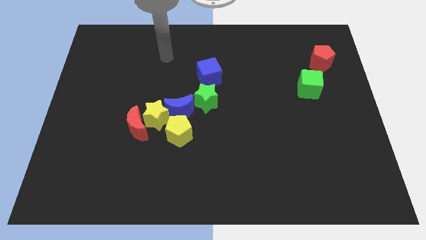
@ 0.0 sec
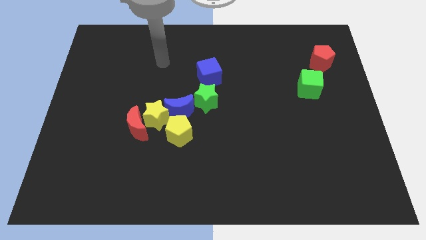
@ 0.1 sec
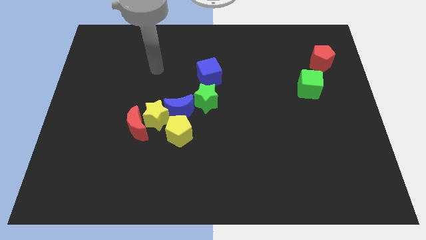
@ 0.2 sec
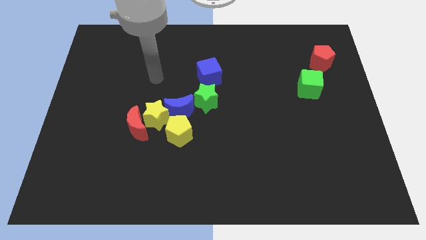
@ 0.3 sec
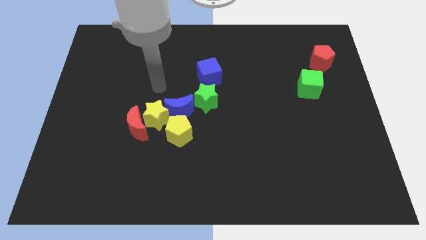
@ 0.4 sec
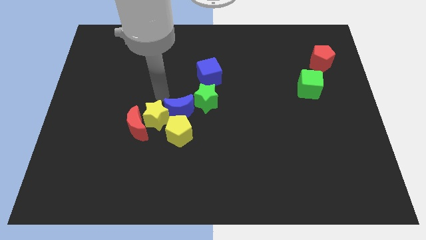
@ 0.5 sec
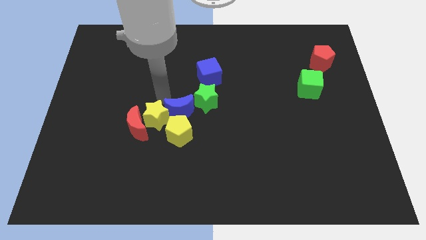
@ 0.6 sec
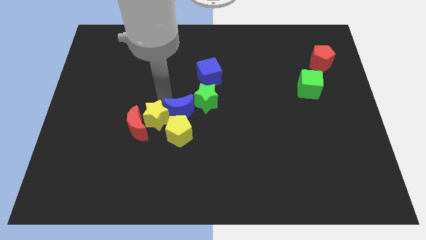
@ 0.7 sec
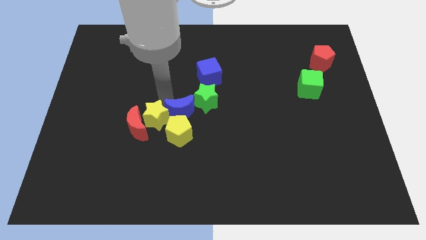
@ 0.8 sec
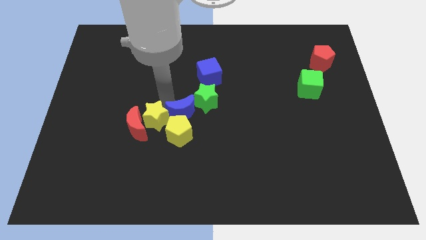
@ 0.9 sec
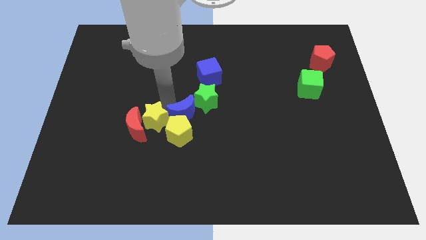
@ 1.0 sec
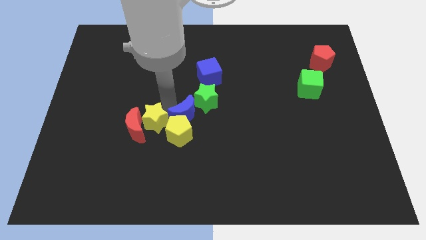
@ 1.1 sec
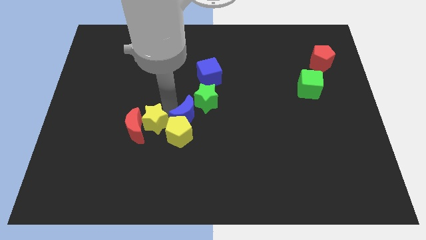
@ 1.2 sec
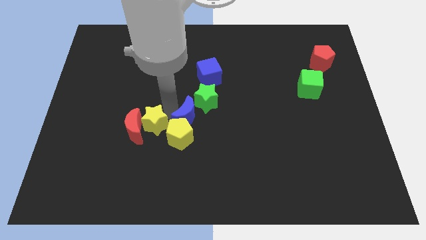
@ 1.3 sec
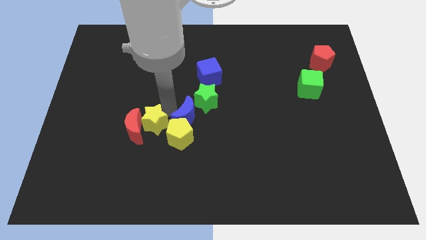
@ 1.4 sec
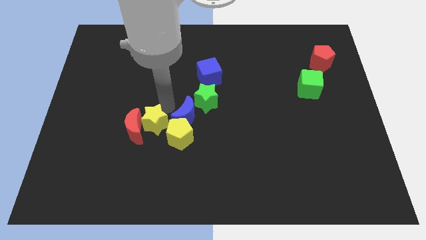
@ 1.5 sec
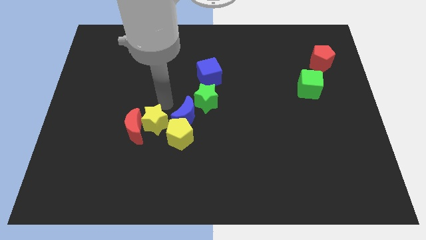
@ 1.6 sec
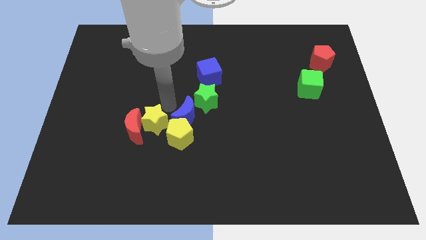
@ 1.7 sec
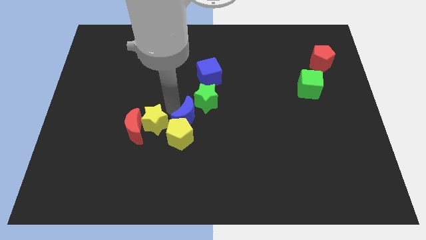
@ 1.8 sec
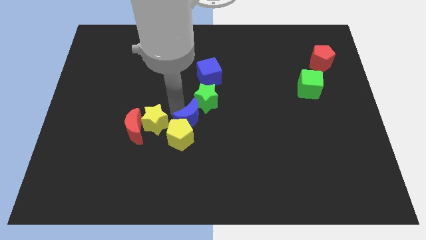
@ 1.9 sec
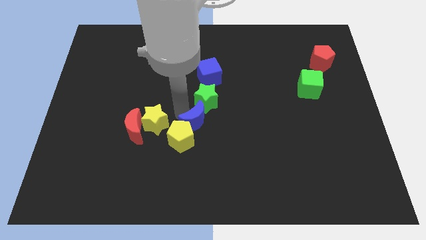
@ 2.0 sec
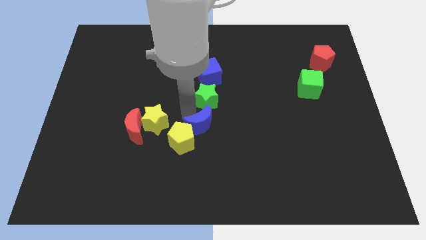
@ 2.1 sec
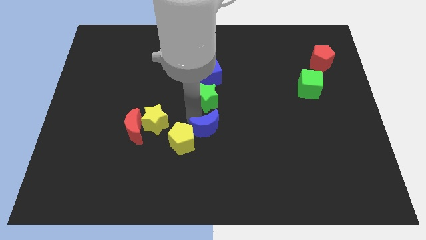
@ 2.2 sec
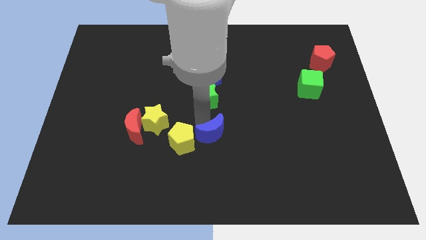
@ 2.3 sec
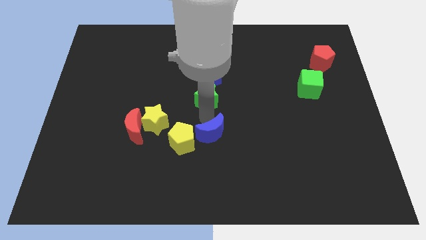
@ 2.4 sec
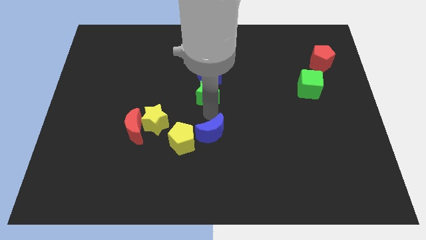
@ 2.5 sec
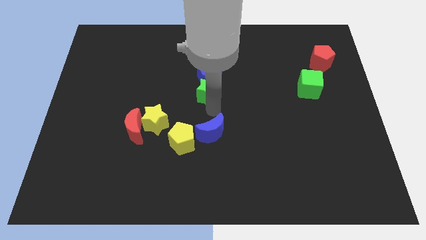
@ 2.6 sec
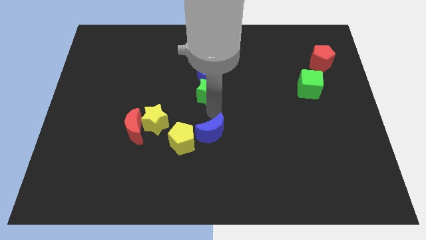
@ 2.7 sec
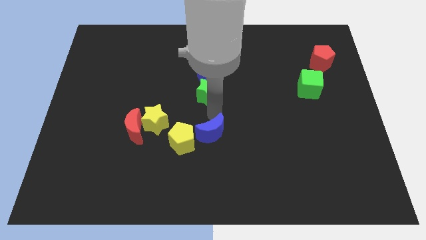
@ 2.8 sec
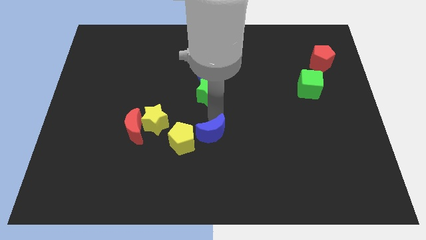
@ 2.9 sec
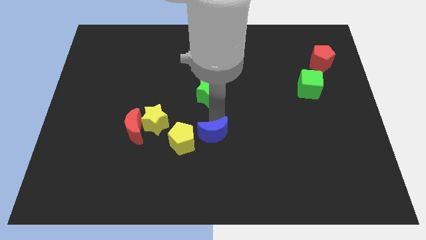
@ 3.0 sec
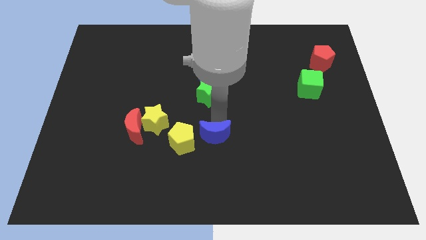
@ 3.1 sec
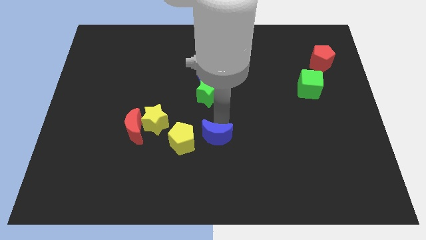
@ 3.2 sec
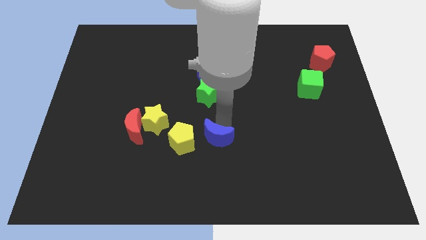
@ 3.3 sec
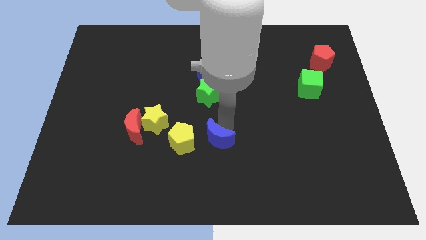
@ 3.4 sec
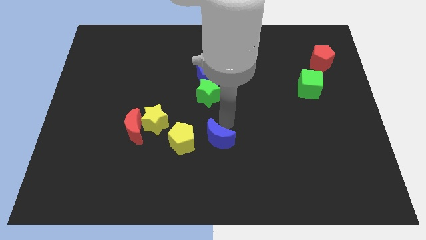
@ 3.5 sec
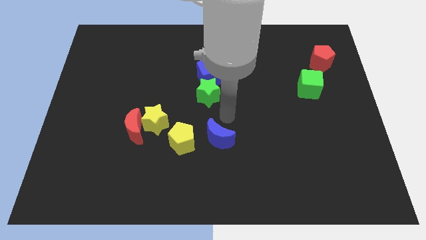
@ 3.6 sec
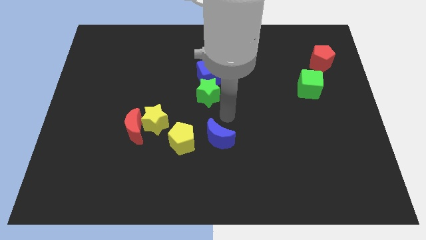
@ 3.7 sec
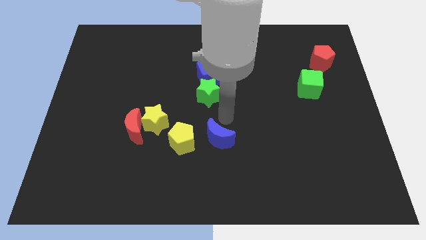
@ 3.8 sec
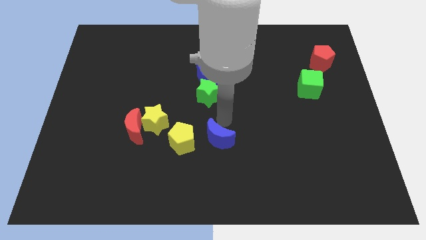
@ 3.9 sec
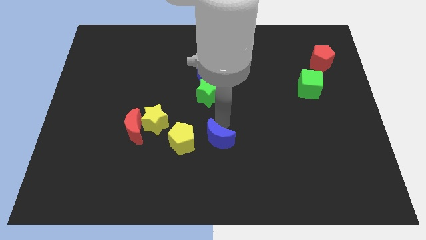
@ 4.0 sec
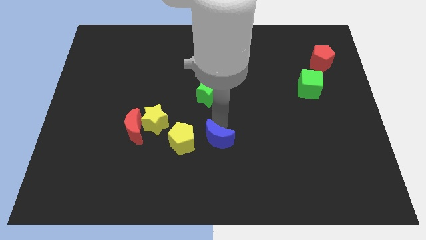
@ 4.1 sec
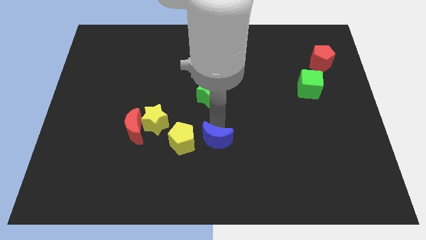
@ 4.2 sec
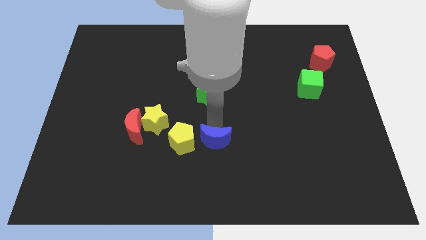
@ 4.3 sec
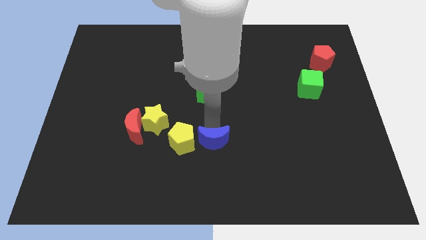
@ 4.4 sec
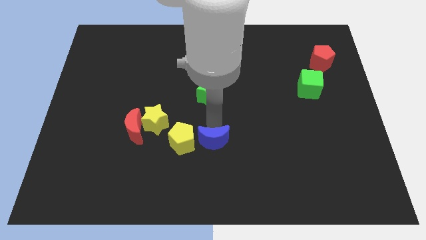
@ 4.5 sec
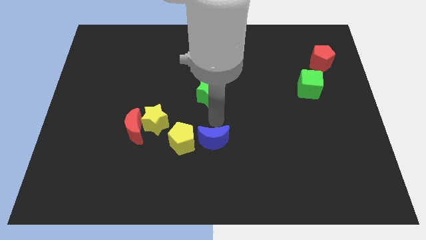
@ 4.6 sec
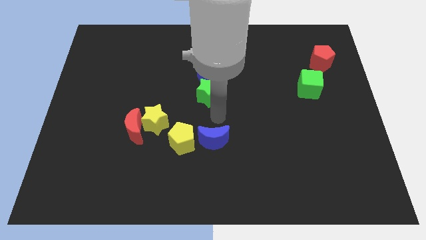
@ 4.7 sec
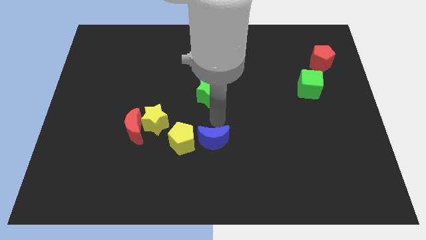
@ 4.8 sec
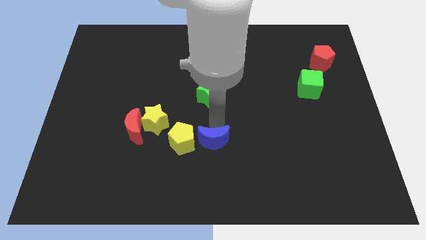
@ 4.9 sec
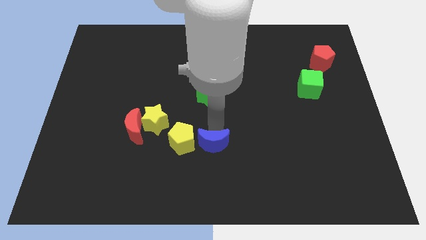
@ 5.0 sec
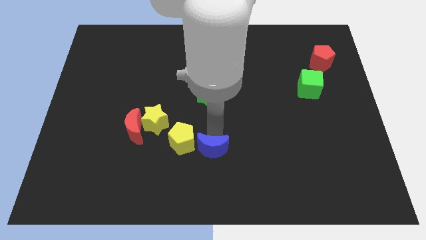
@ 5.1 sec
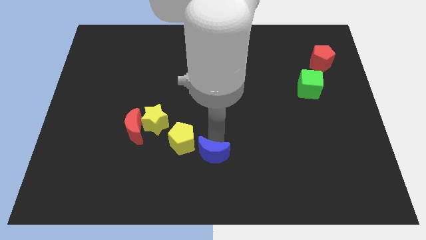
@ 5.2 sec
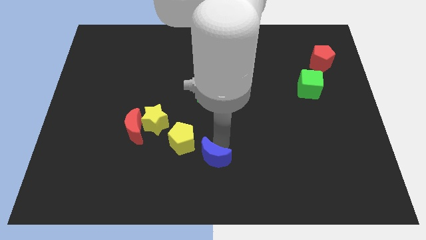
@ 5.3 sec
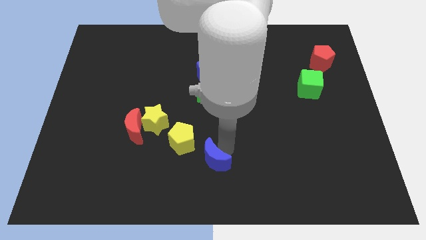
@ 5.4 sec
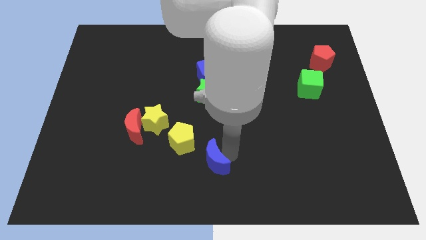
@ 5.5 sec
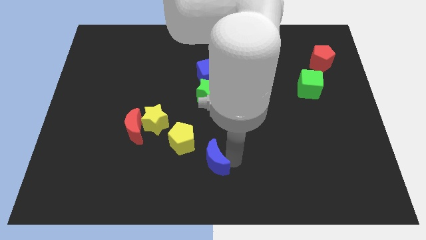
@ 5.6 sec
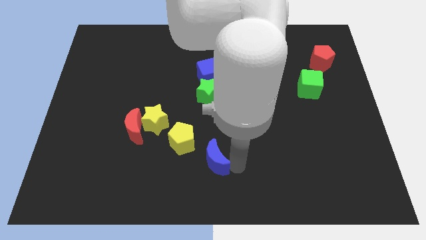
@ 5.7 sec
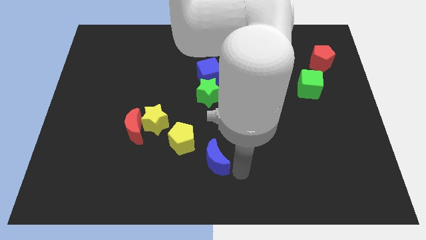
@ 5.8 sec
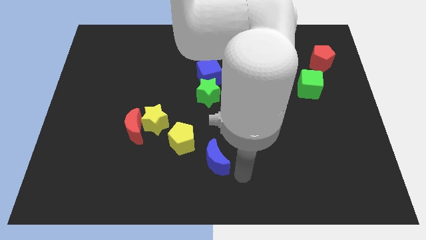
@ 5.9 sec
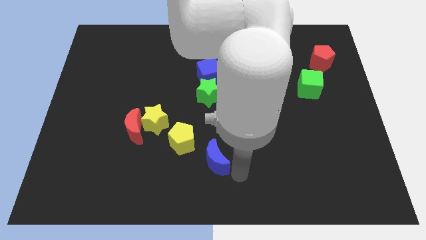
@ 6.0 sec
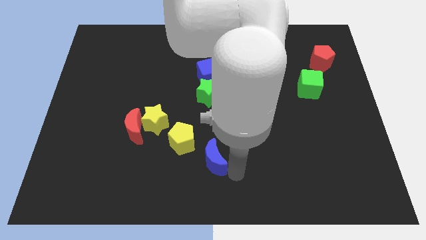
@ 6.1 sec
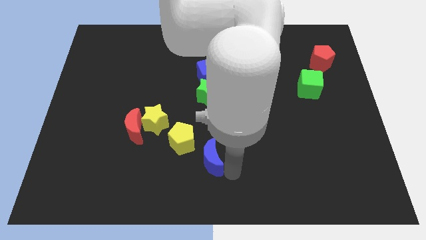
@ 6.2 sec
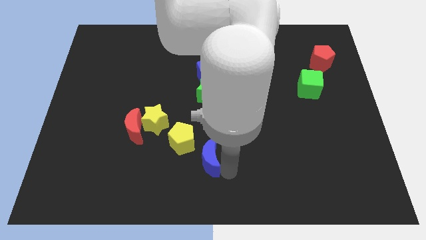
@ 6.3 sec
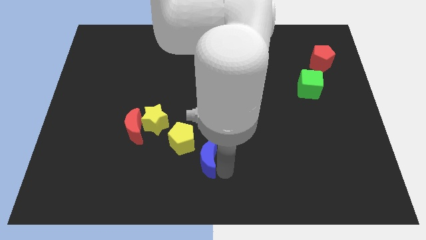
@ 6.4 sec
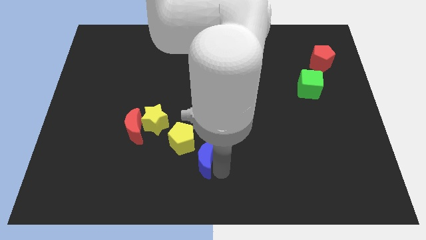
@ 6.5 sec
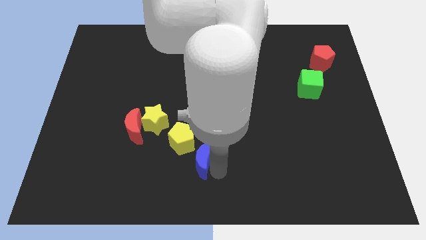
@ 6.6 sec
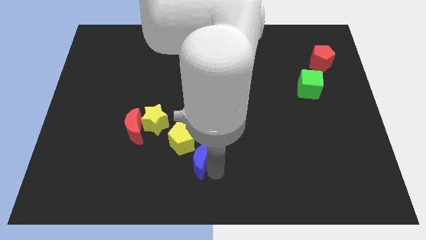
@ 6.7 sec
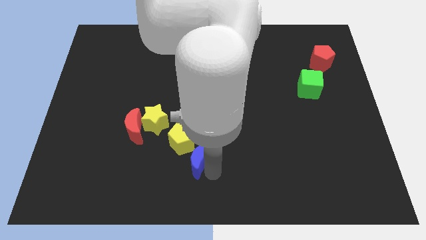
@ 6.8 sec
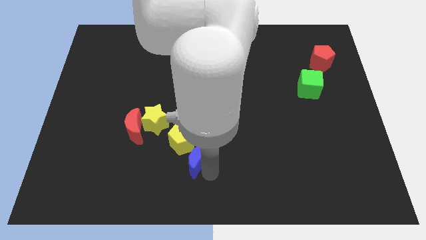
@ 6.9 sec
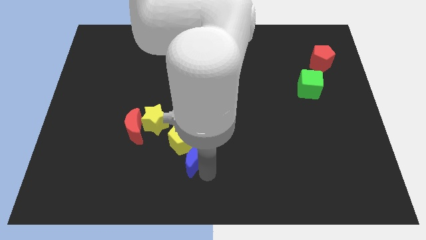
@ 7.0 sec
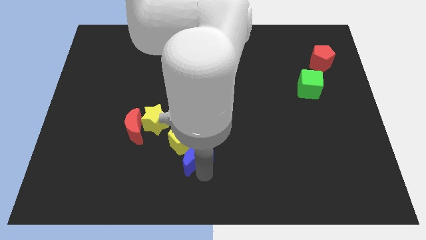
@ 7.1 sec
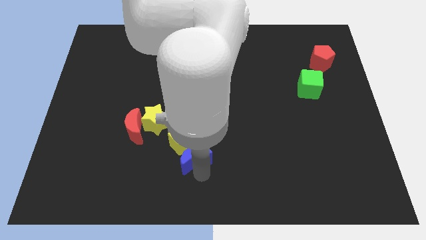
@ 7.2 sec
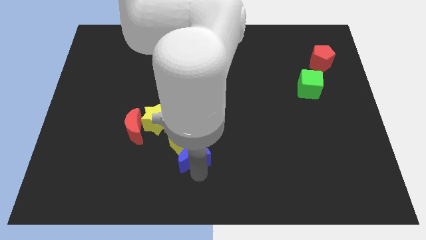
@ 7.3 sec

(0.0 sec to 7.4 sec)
move the blue moon to the bottom right of the yellow star
